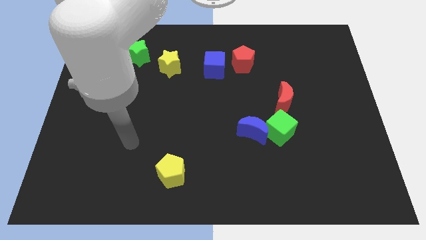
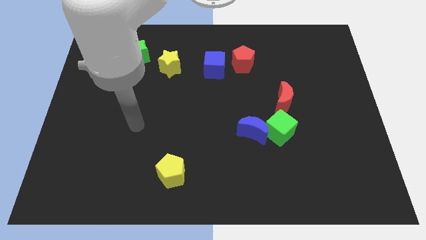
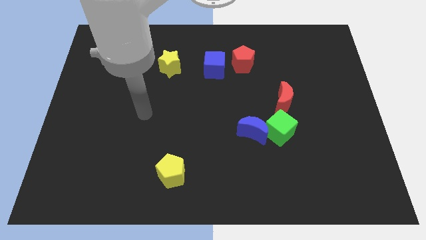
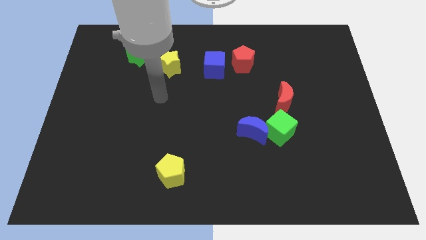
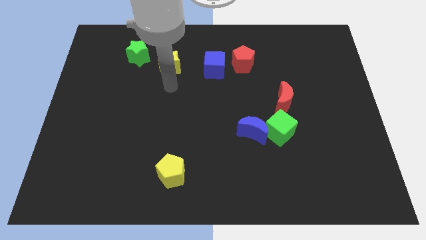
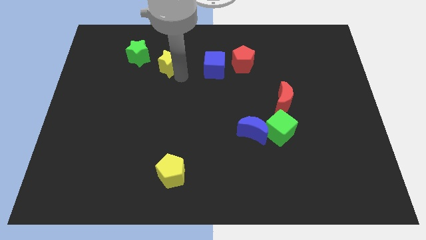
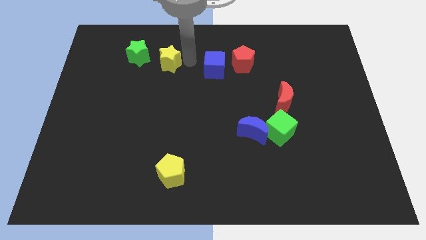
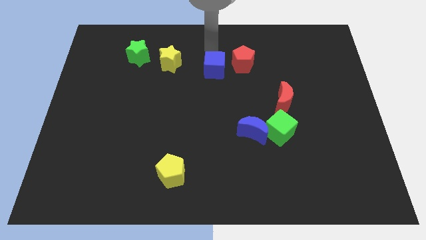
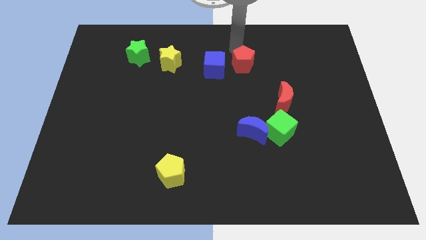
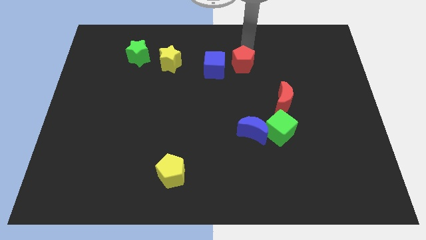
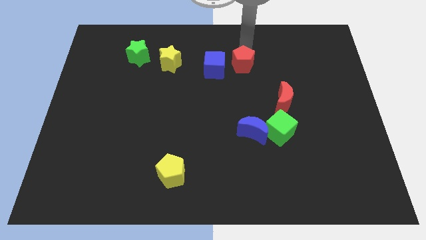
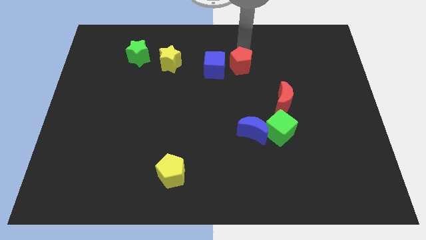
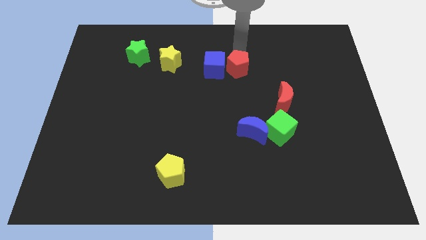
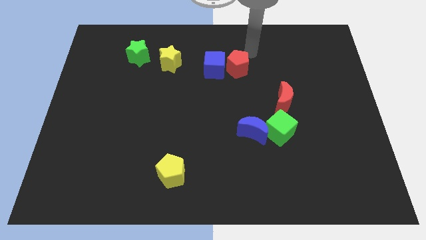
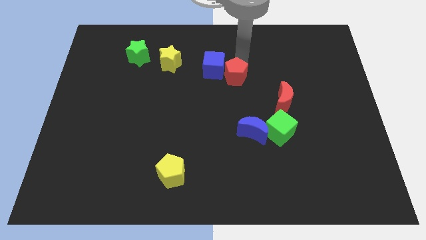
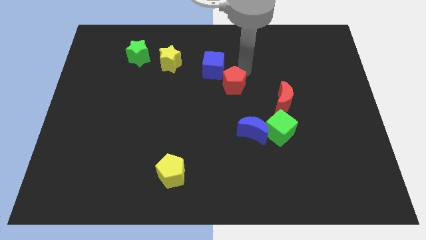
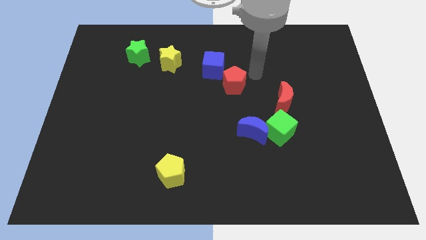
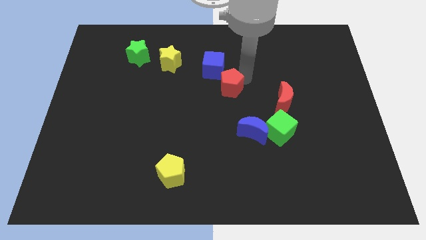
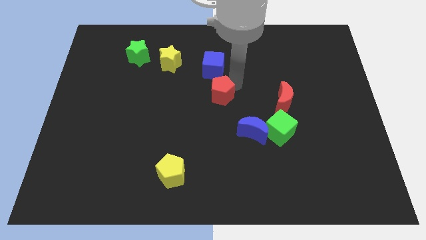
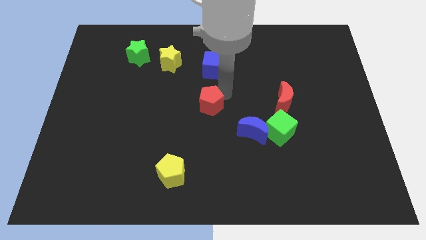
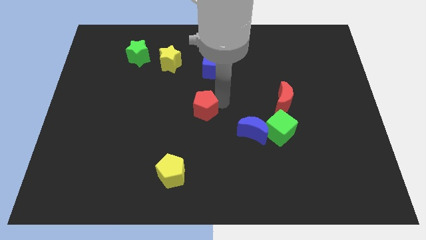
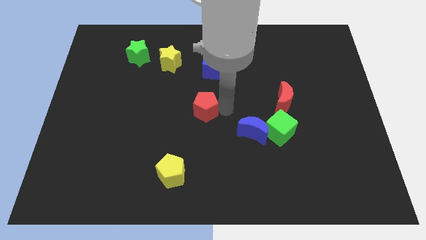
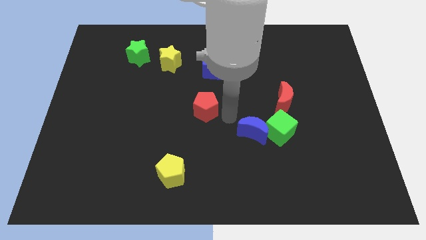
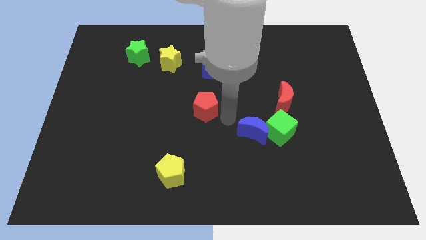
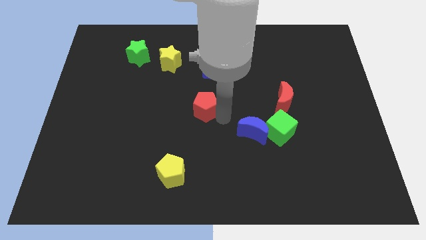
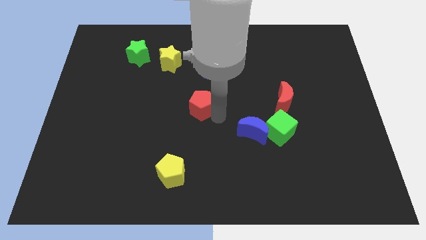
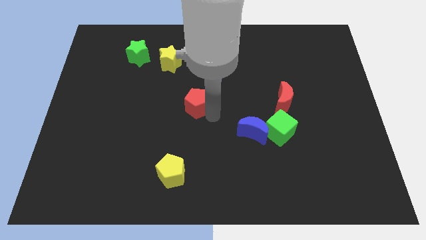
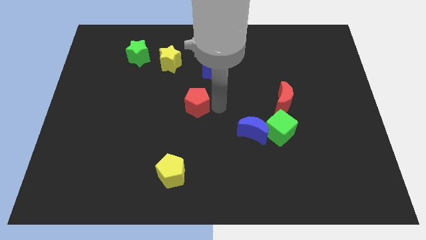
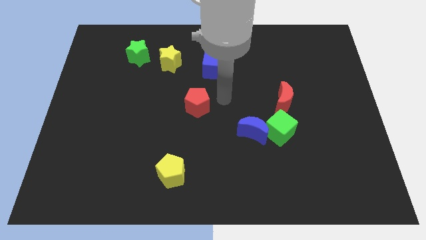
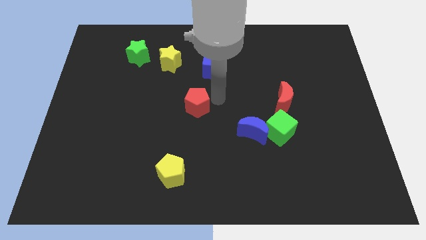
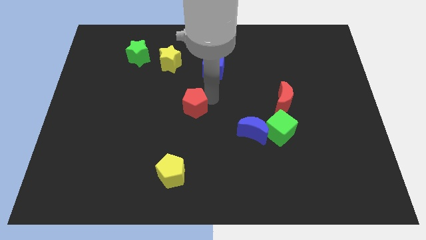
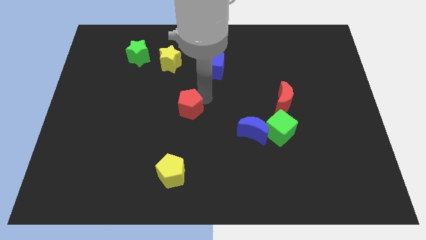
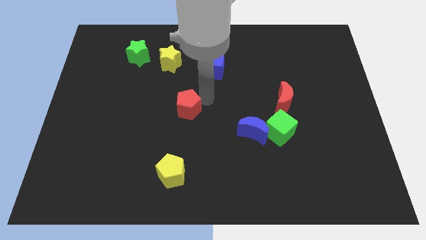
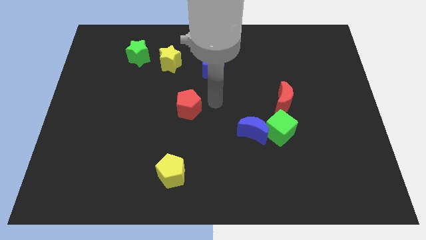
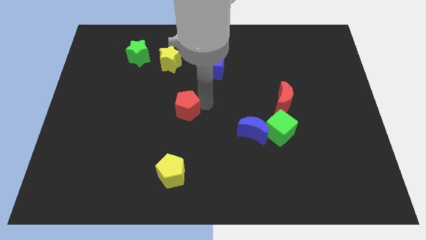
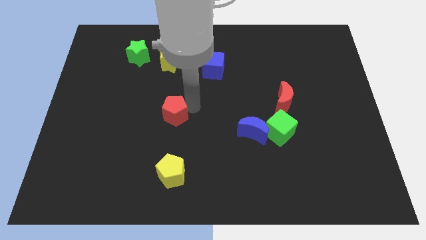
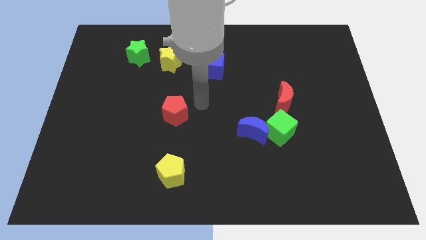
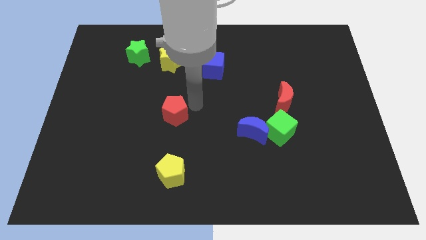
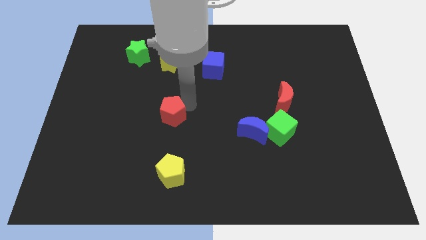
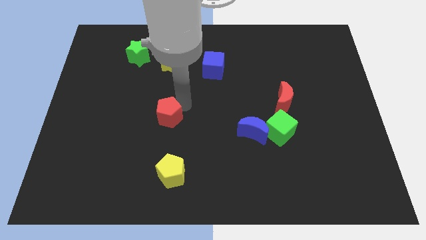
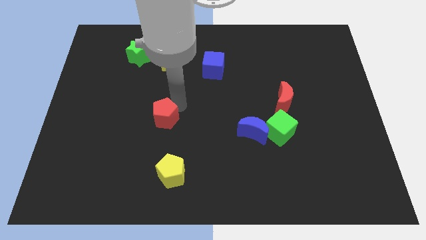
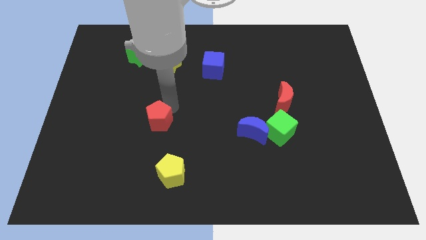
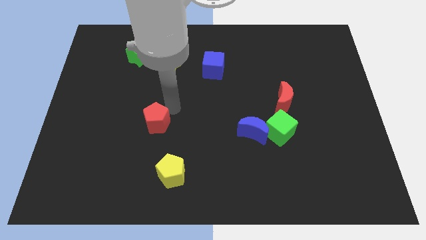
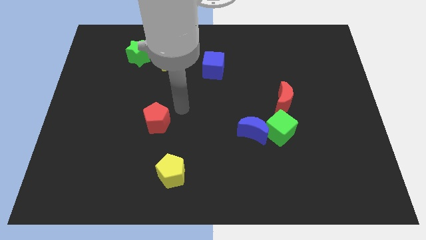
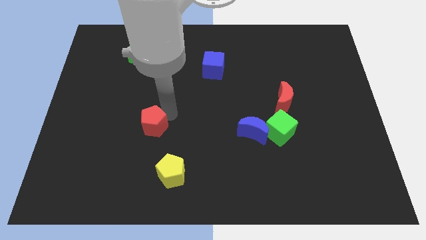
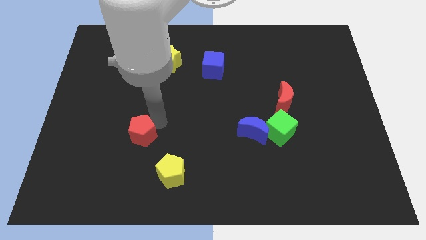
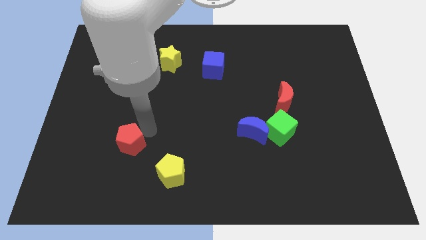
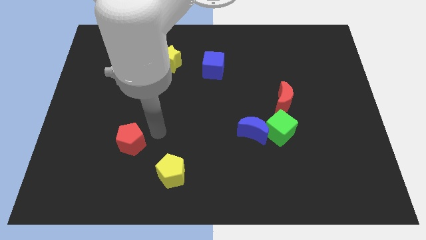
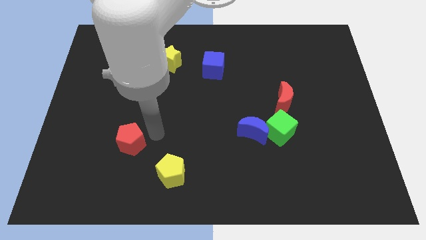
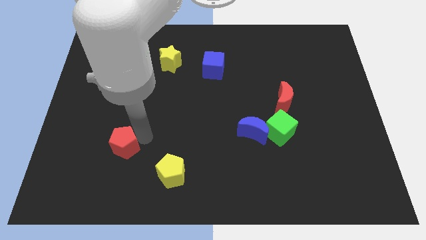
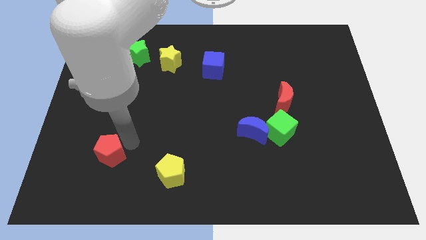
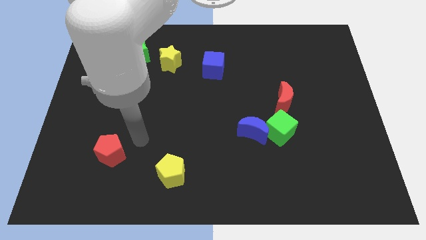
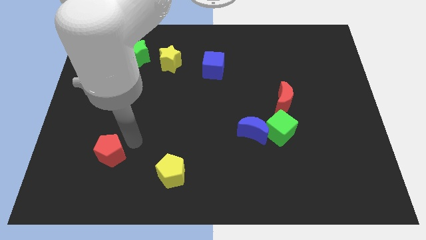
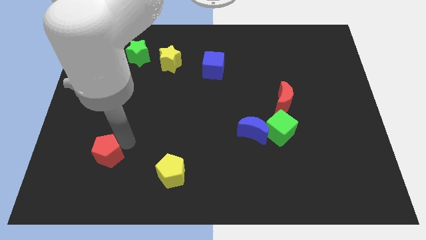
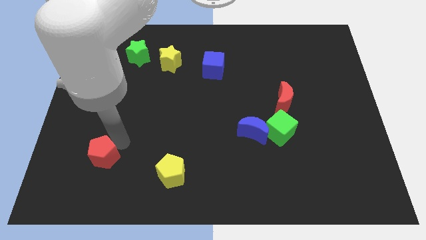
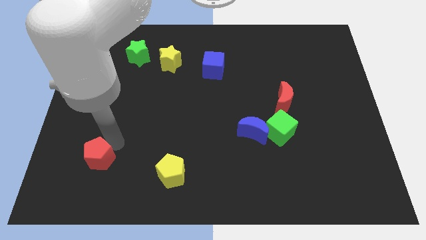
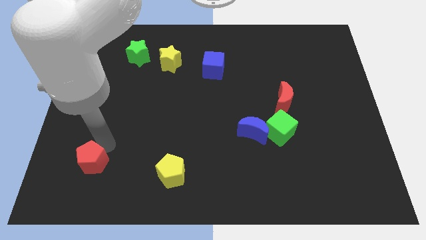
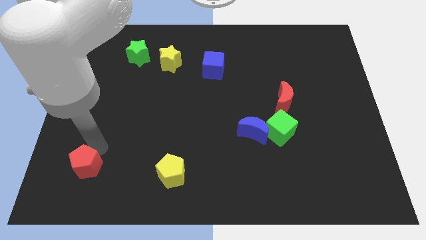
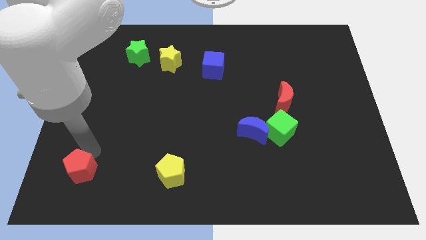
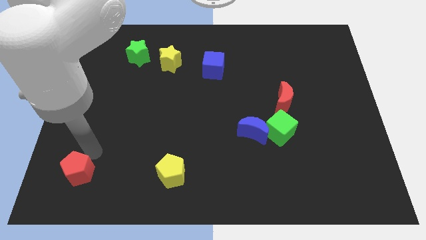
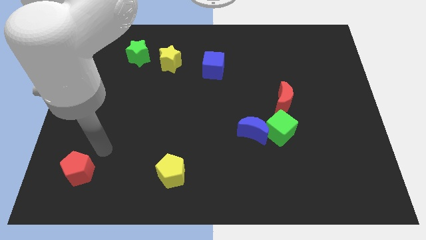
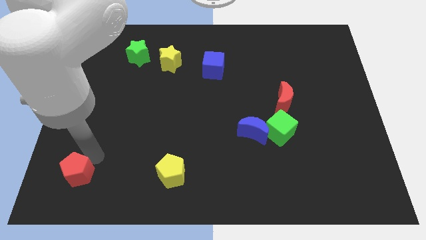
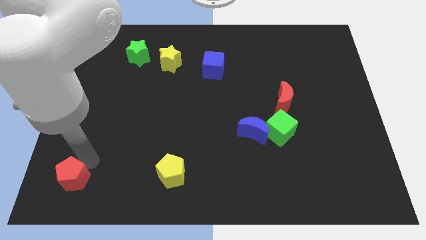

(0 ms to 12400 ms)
put the red pentagon to the bottom left corner

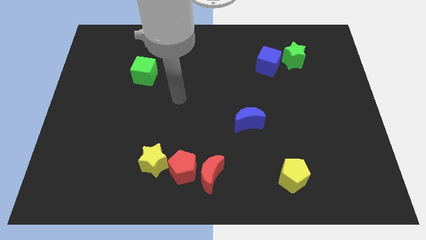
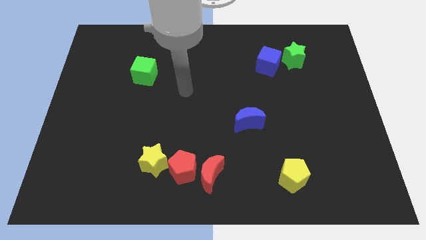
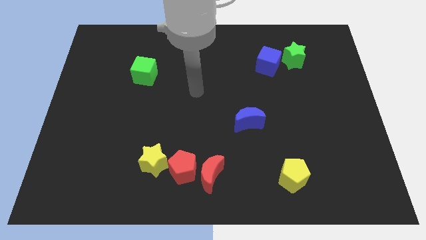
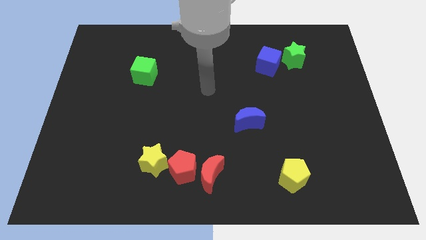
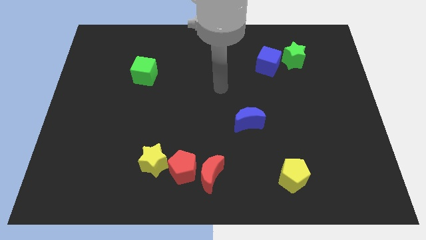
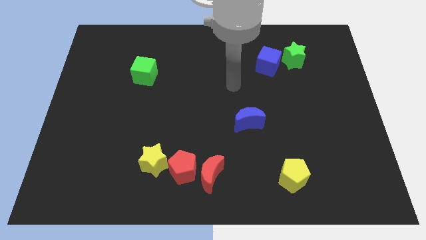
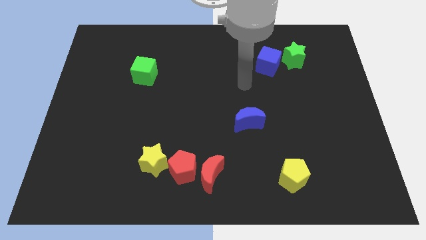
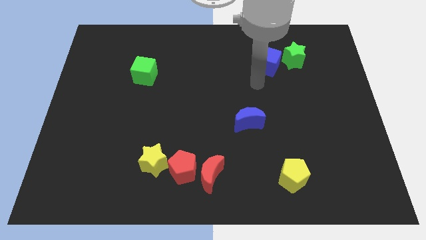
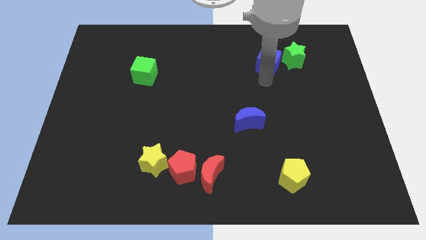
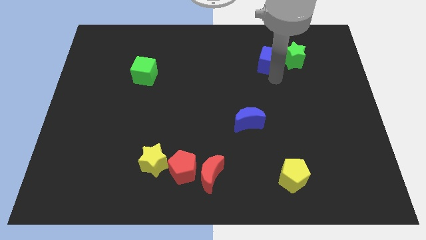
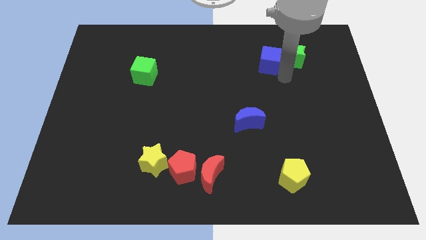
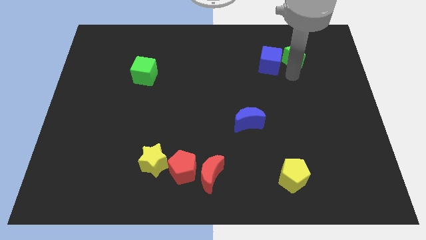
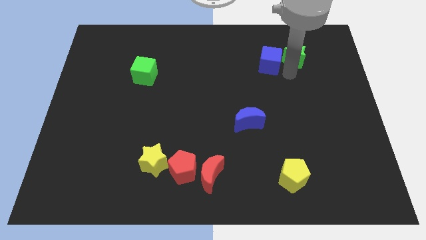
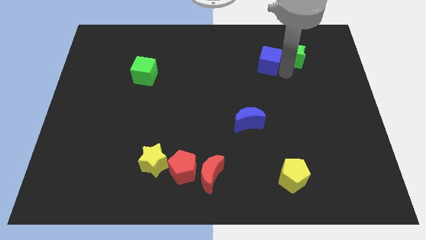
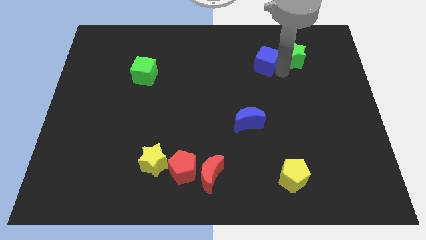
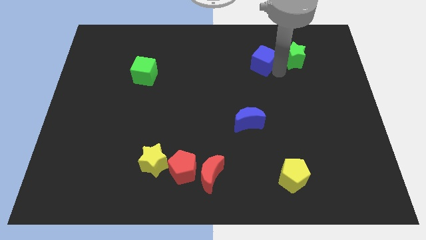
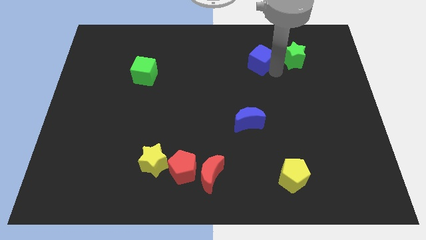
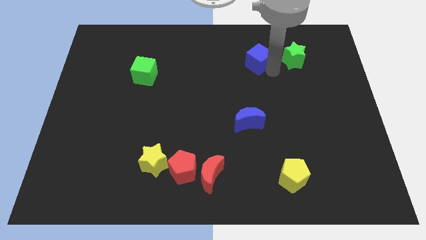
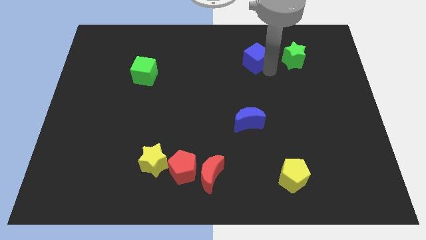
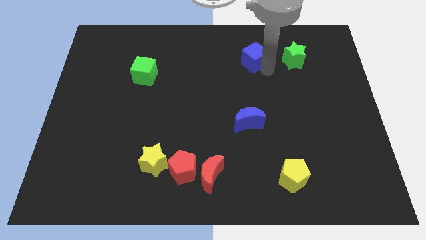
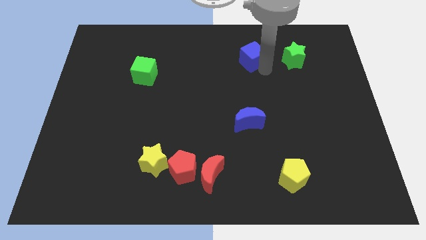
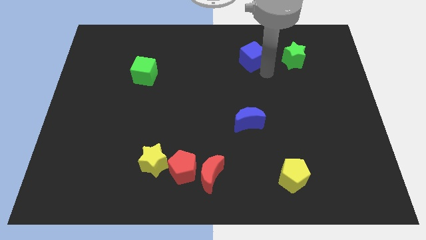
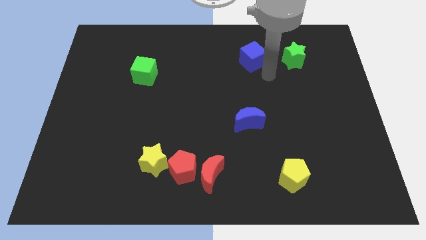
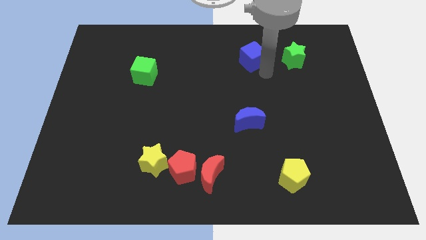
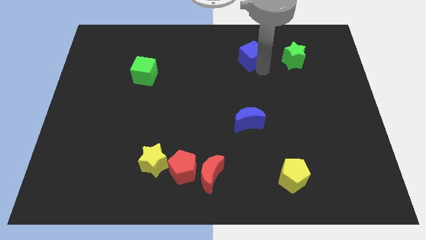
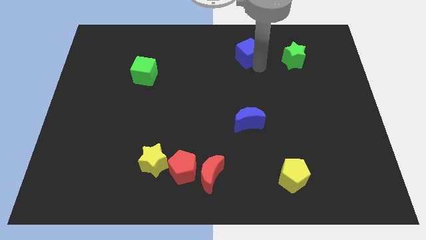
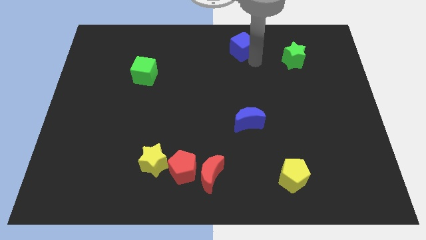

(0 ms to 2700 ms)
slide the blue cube to the top side
